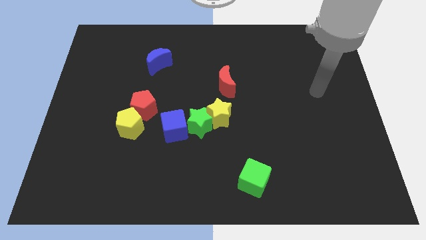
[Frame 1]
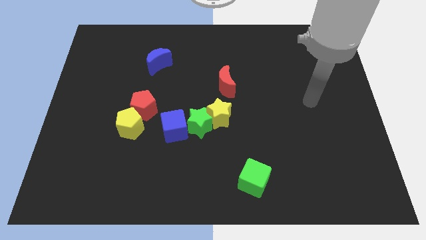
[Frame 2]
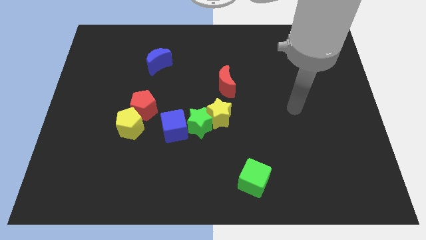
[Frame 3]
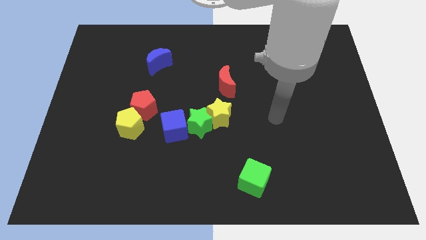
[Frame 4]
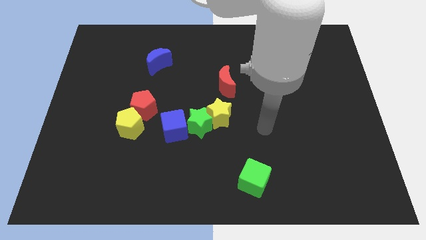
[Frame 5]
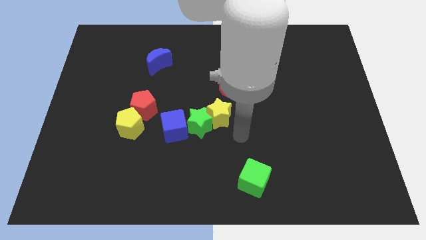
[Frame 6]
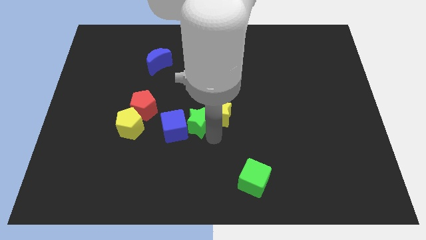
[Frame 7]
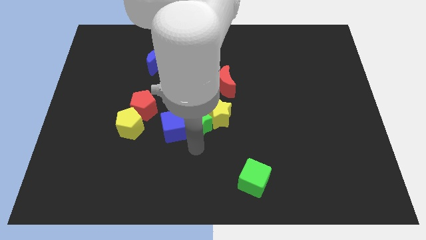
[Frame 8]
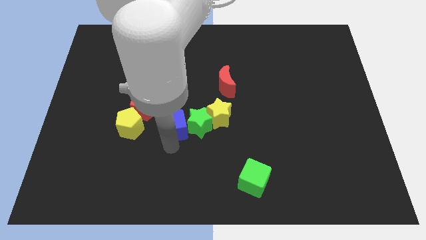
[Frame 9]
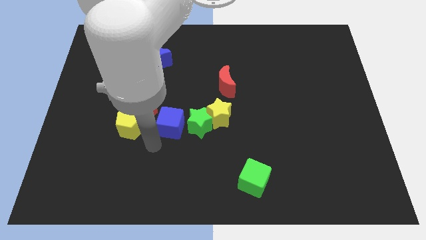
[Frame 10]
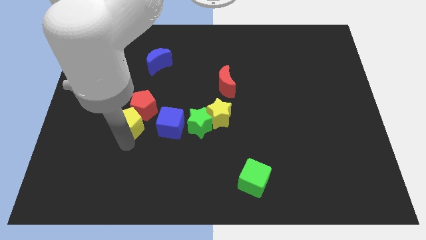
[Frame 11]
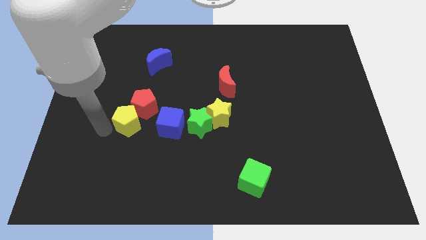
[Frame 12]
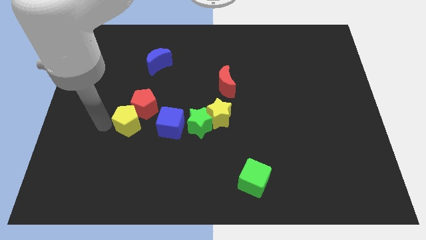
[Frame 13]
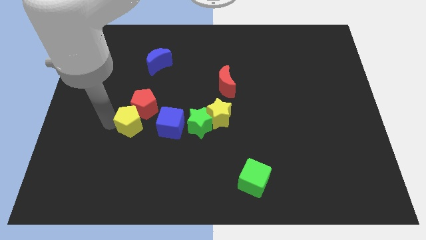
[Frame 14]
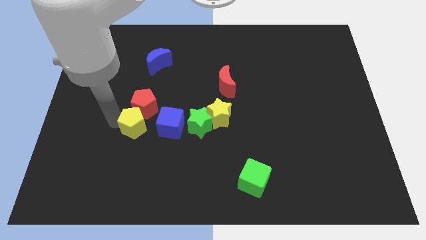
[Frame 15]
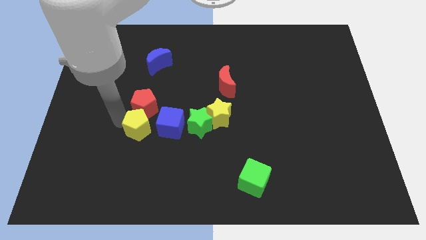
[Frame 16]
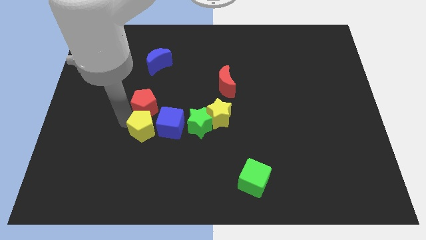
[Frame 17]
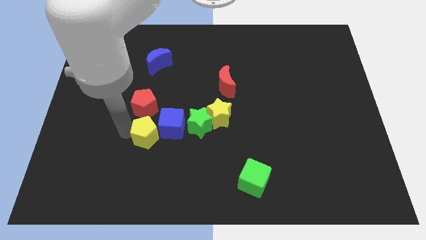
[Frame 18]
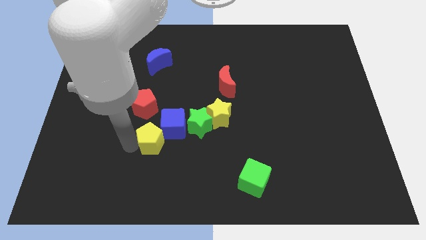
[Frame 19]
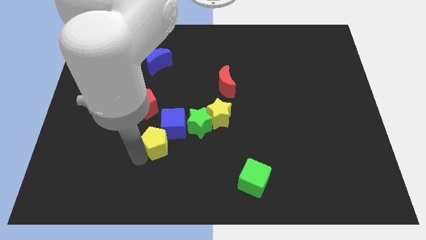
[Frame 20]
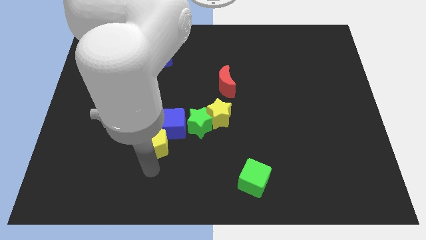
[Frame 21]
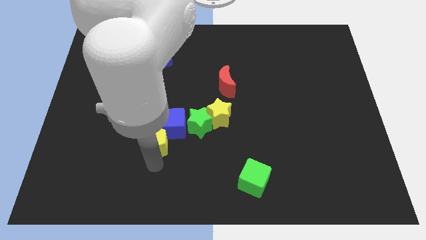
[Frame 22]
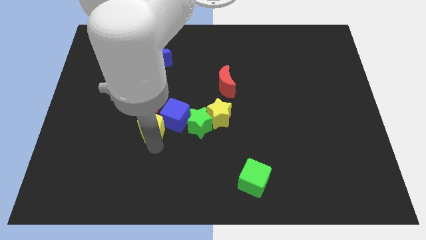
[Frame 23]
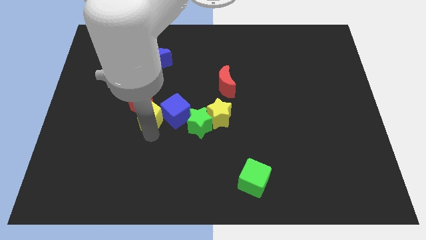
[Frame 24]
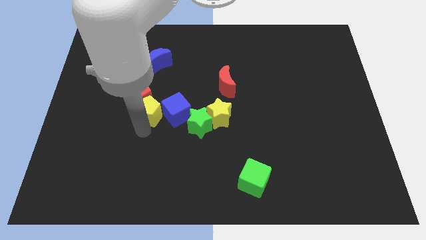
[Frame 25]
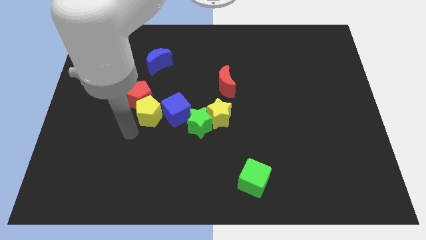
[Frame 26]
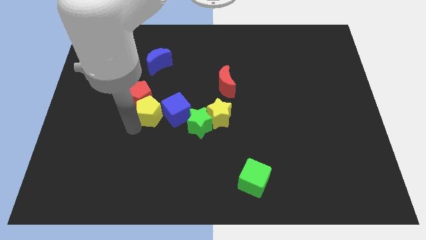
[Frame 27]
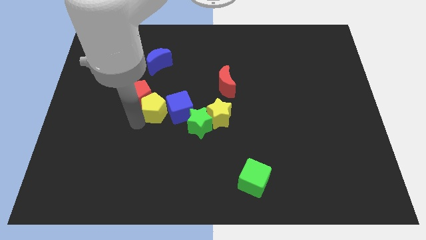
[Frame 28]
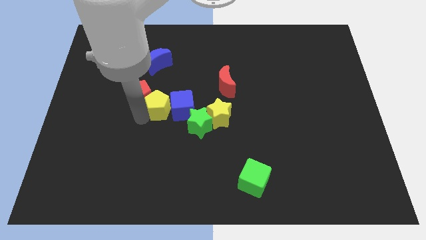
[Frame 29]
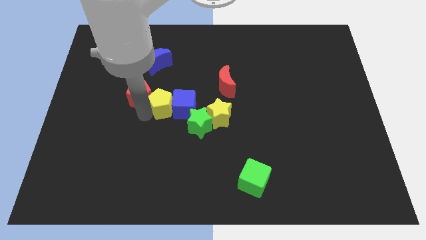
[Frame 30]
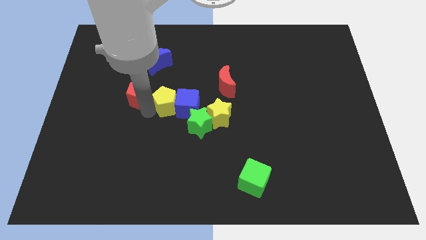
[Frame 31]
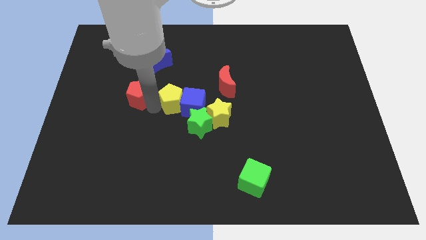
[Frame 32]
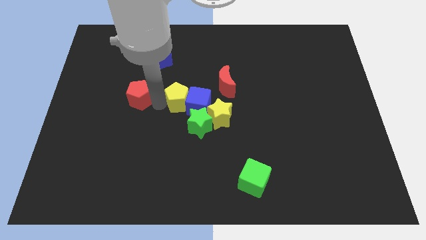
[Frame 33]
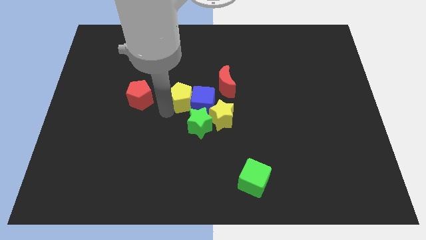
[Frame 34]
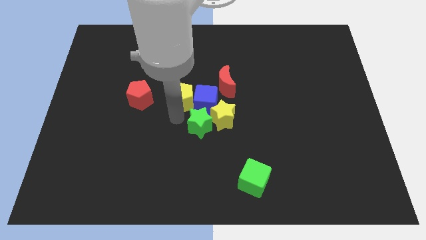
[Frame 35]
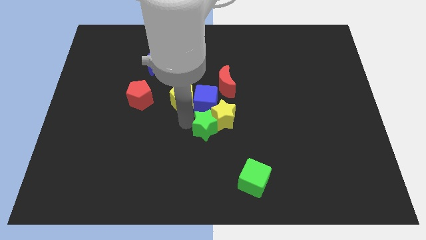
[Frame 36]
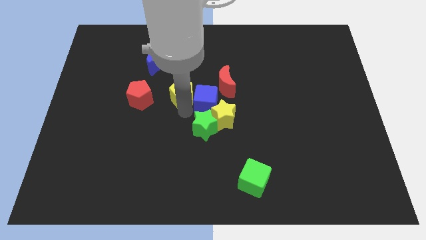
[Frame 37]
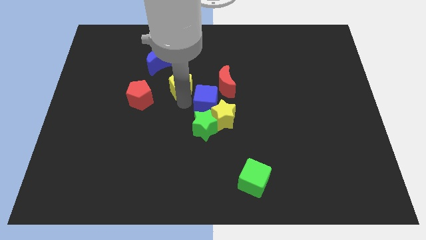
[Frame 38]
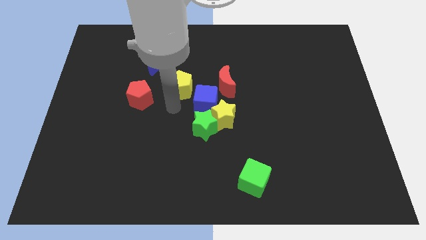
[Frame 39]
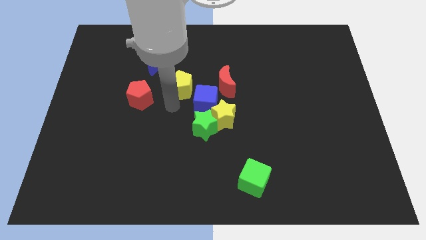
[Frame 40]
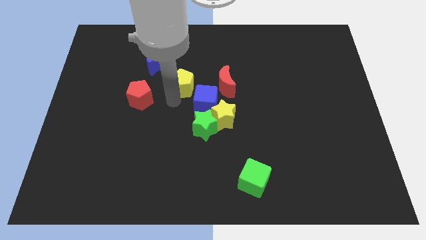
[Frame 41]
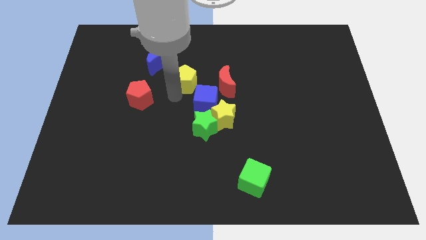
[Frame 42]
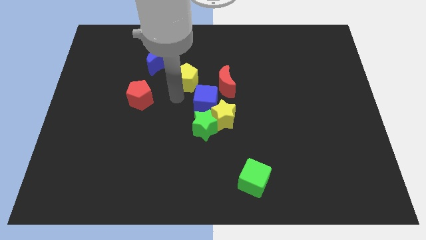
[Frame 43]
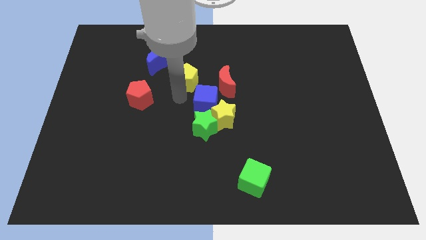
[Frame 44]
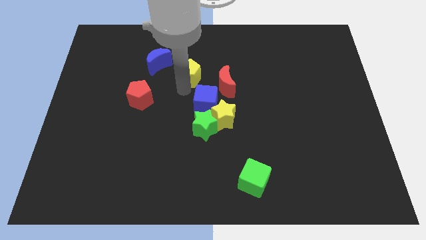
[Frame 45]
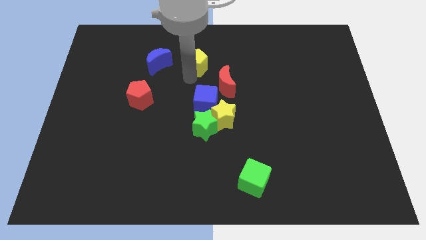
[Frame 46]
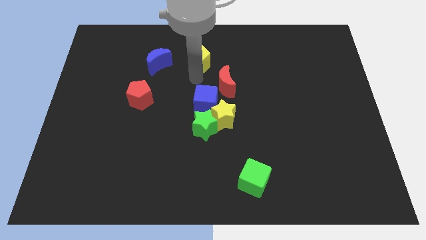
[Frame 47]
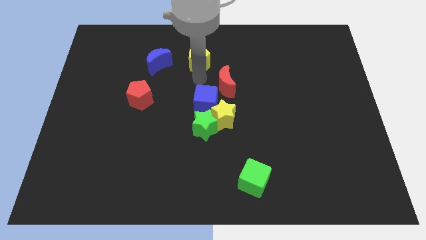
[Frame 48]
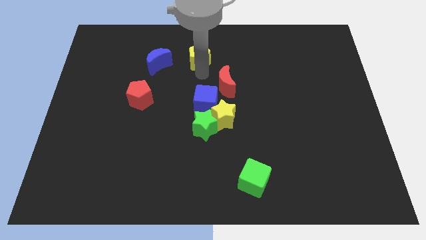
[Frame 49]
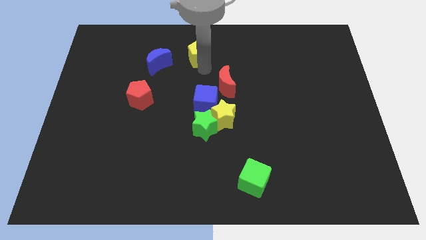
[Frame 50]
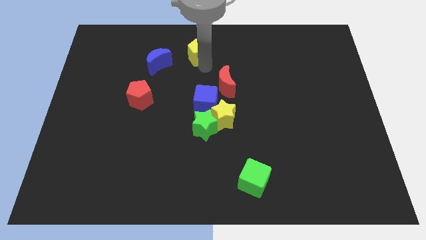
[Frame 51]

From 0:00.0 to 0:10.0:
push the yellow pentagon to the top side

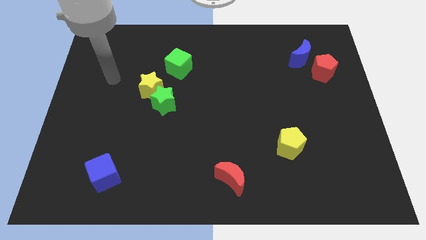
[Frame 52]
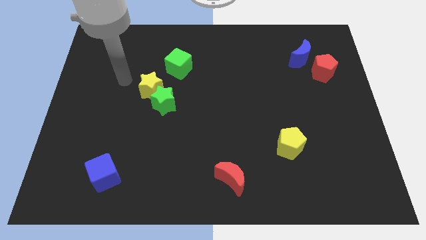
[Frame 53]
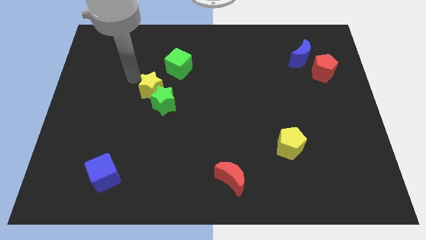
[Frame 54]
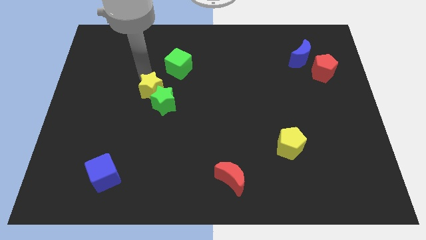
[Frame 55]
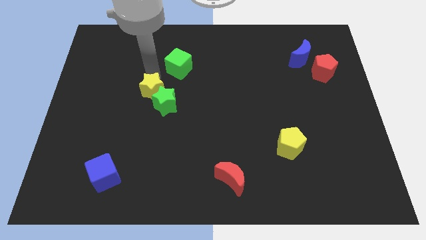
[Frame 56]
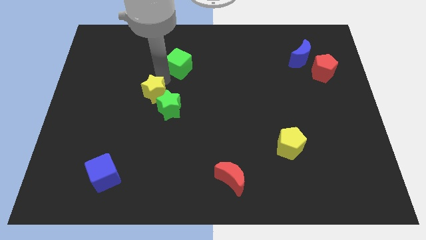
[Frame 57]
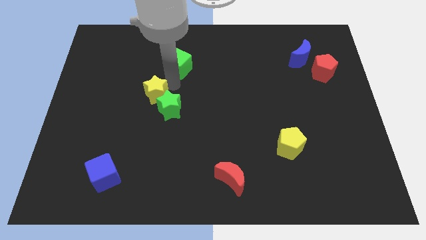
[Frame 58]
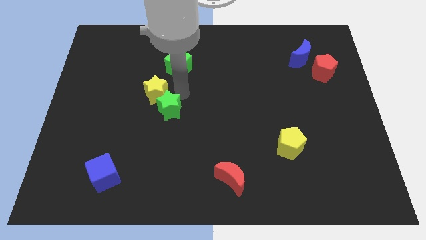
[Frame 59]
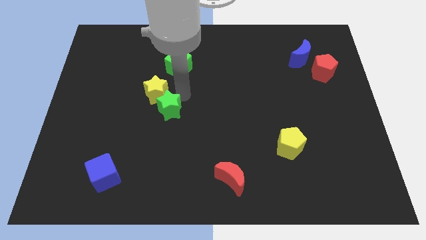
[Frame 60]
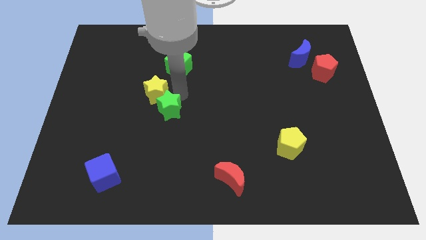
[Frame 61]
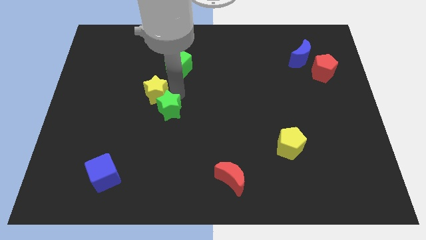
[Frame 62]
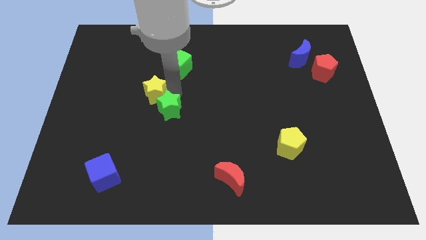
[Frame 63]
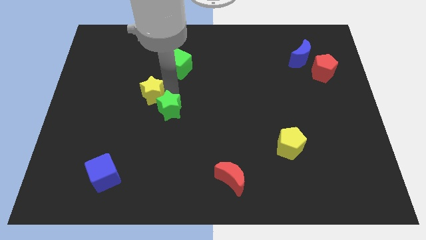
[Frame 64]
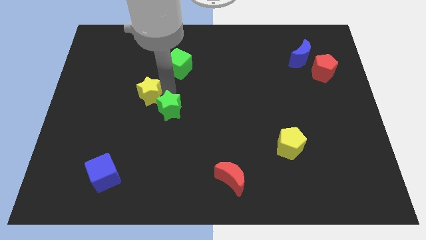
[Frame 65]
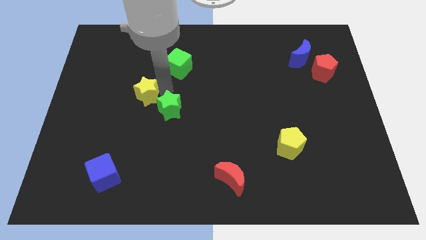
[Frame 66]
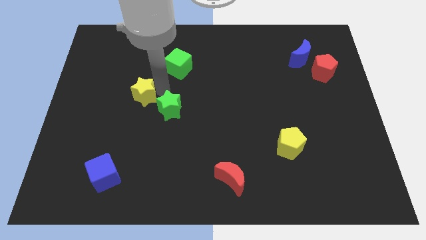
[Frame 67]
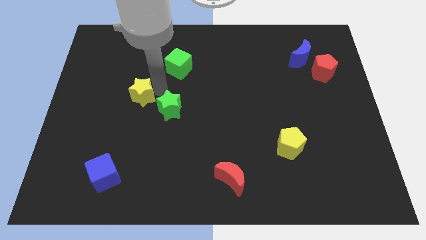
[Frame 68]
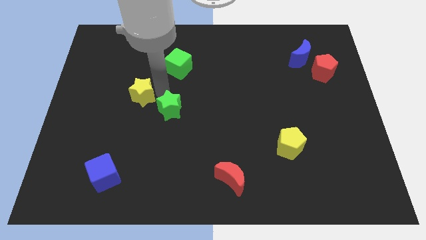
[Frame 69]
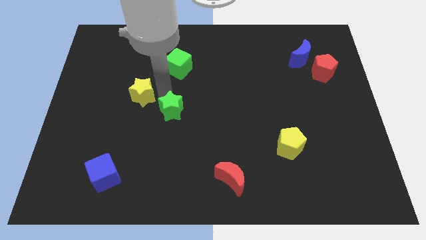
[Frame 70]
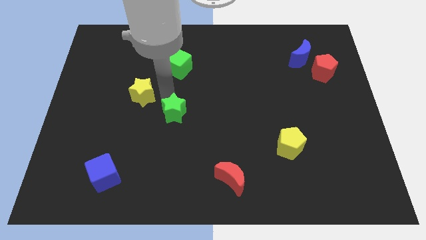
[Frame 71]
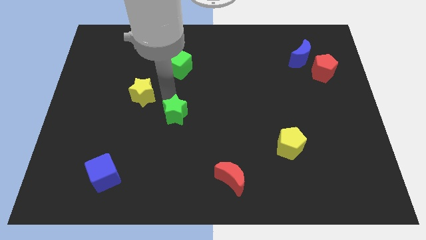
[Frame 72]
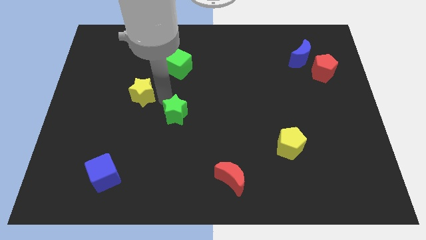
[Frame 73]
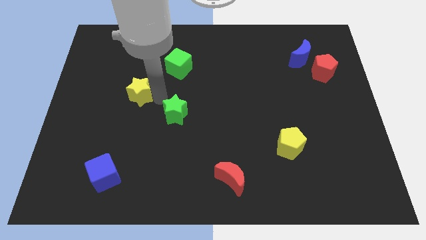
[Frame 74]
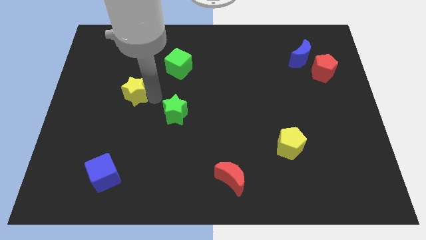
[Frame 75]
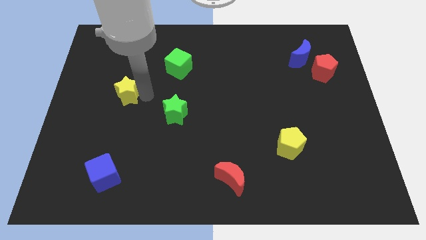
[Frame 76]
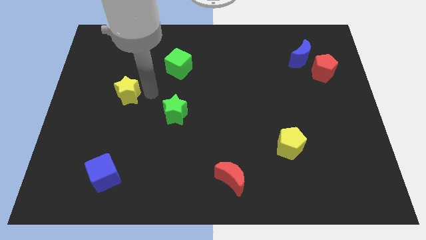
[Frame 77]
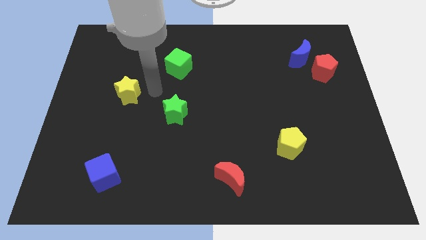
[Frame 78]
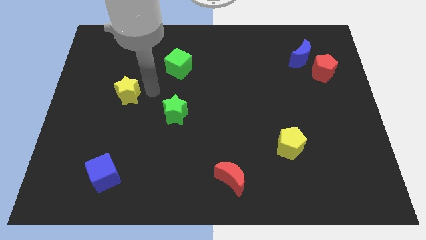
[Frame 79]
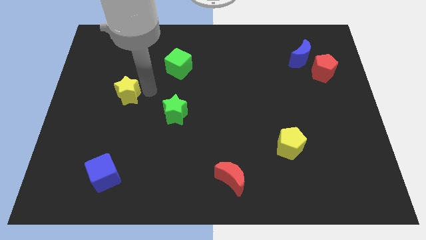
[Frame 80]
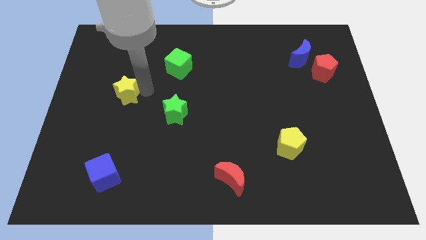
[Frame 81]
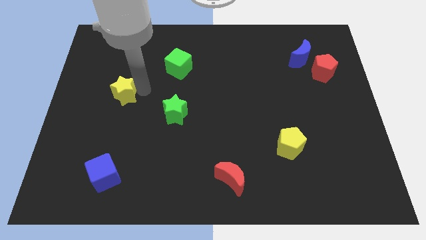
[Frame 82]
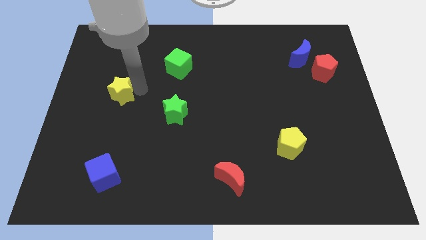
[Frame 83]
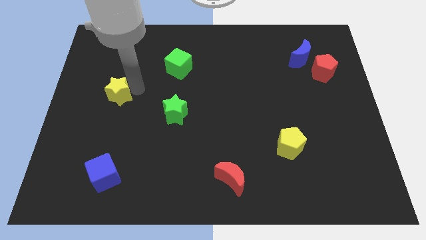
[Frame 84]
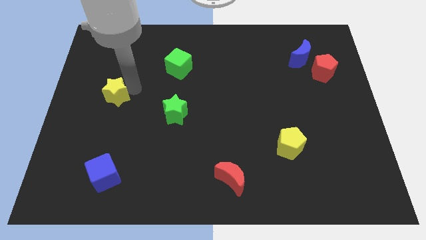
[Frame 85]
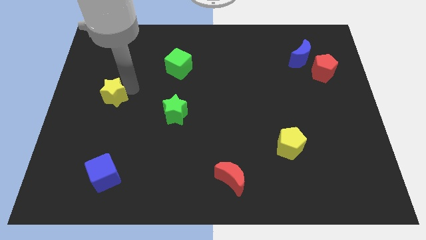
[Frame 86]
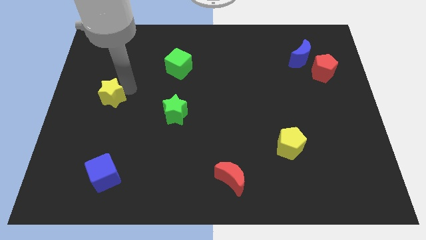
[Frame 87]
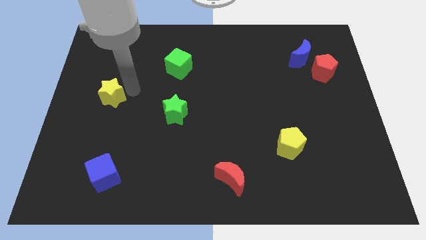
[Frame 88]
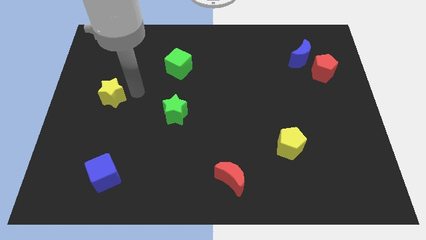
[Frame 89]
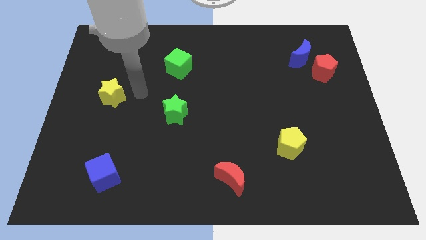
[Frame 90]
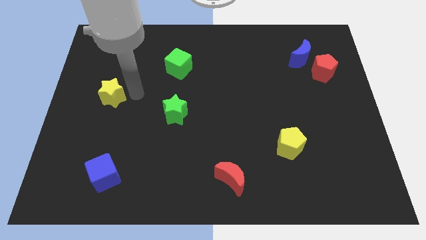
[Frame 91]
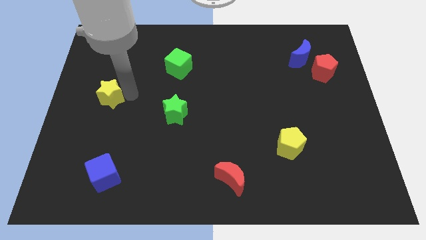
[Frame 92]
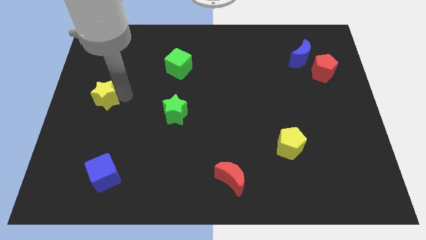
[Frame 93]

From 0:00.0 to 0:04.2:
slide the yellow star to the left side of the board
